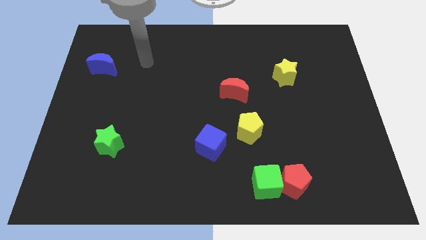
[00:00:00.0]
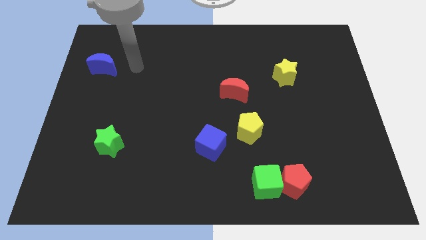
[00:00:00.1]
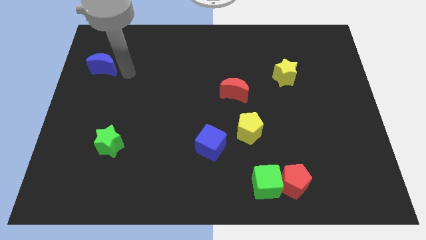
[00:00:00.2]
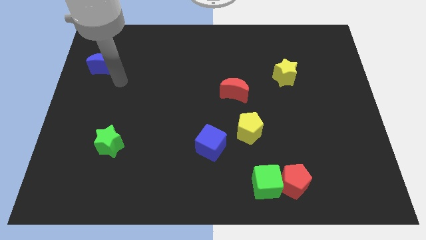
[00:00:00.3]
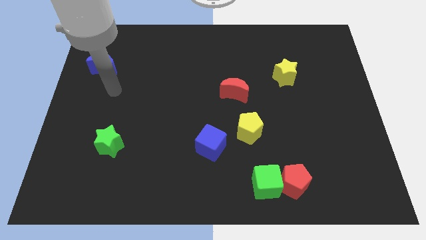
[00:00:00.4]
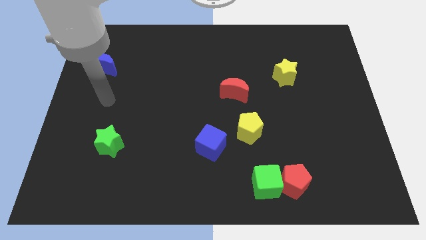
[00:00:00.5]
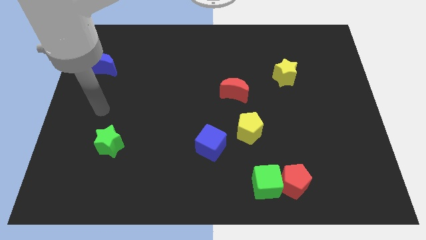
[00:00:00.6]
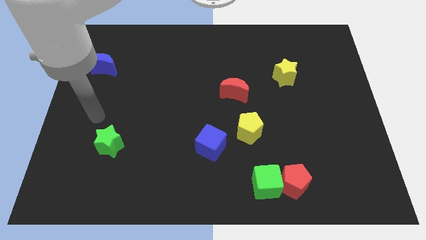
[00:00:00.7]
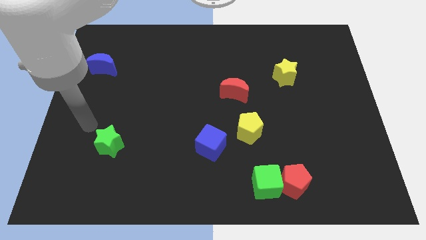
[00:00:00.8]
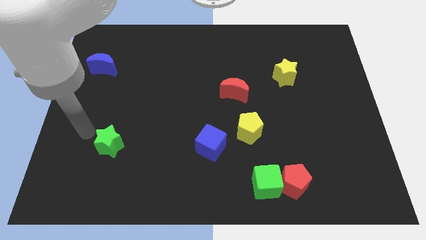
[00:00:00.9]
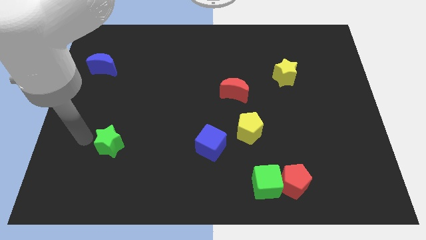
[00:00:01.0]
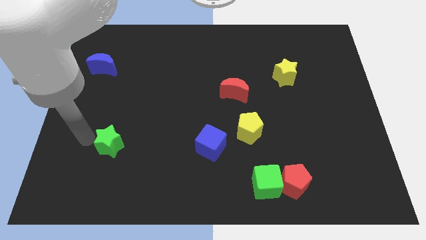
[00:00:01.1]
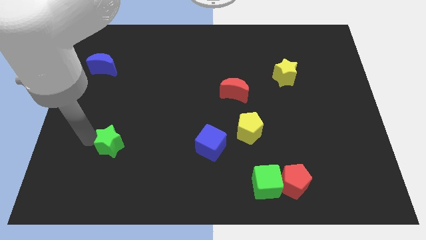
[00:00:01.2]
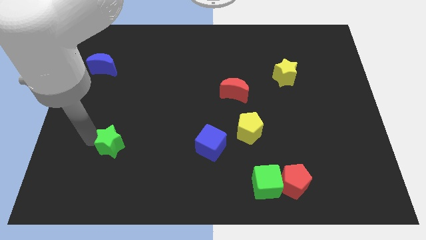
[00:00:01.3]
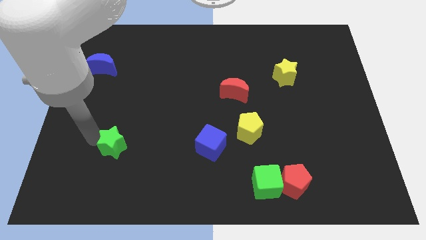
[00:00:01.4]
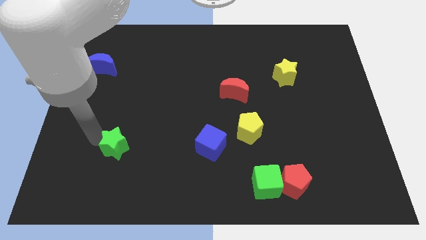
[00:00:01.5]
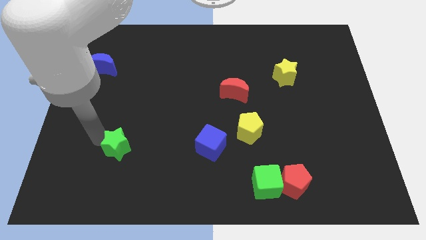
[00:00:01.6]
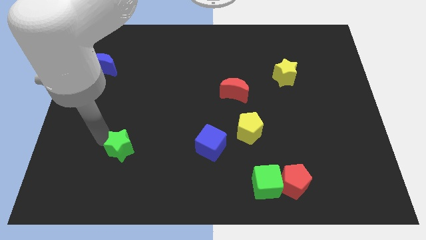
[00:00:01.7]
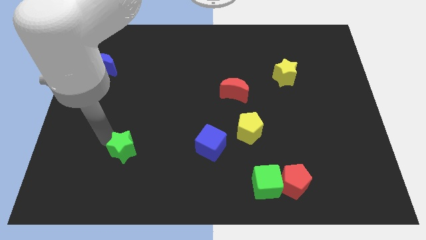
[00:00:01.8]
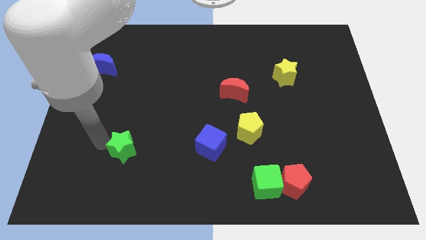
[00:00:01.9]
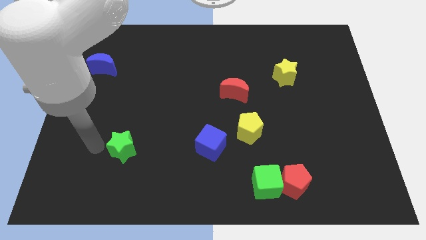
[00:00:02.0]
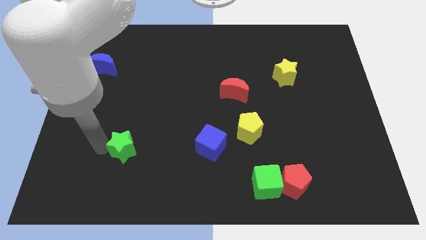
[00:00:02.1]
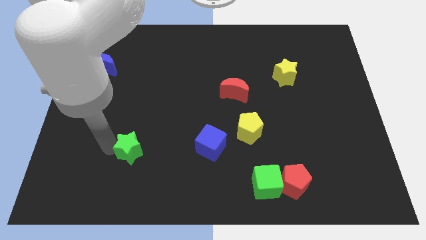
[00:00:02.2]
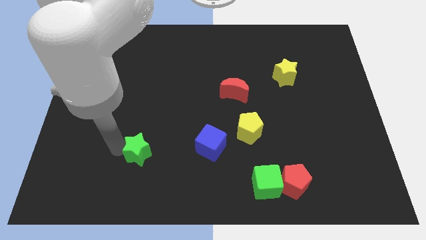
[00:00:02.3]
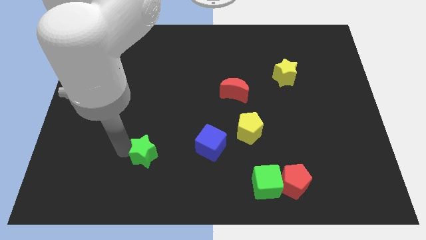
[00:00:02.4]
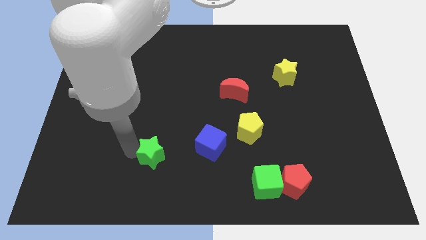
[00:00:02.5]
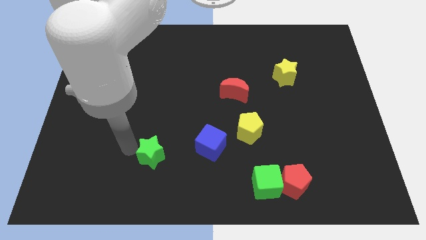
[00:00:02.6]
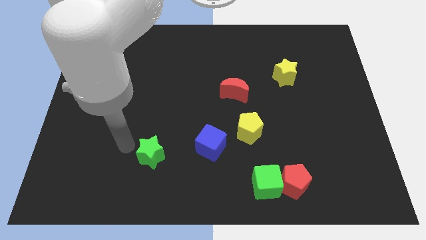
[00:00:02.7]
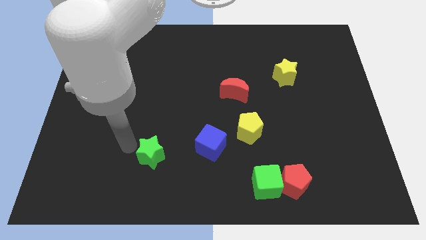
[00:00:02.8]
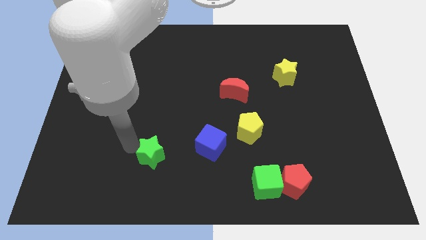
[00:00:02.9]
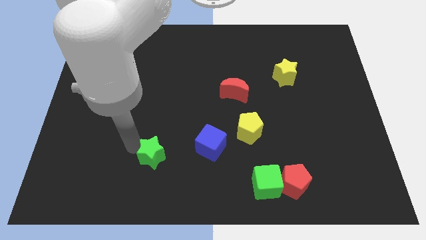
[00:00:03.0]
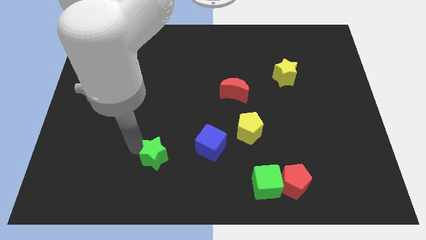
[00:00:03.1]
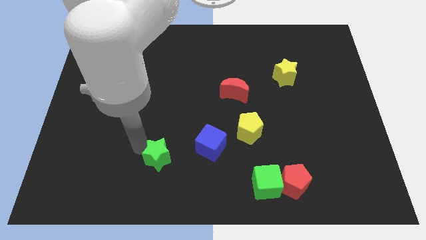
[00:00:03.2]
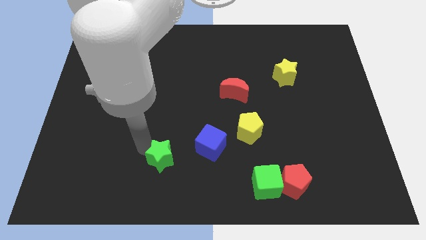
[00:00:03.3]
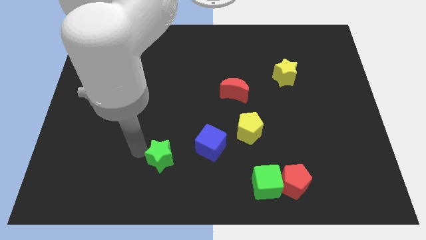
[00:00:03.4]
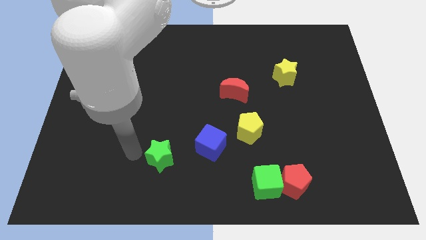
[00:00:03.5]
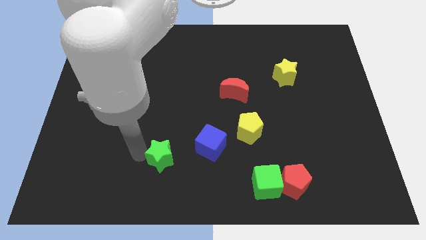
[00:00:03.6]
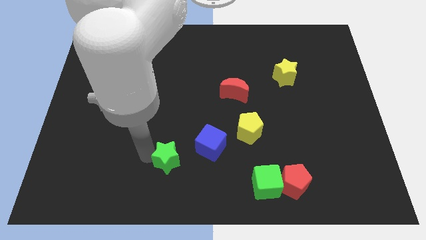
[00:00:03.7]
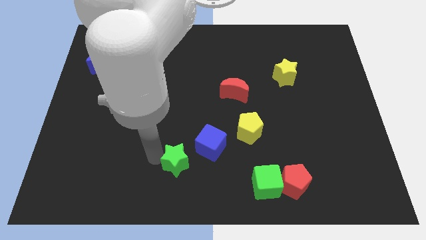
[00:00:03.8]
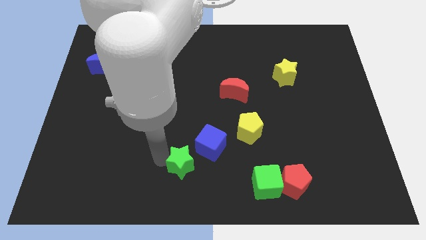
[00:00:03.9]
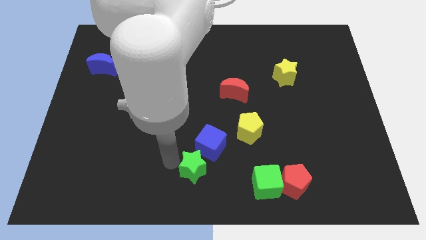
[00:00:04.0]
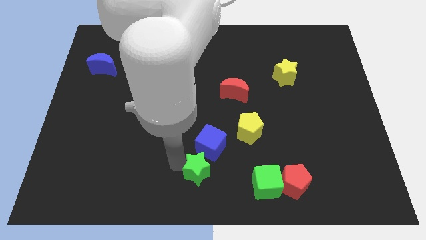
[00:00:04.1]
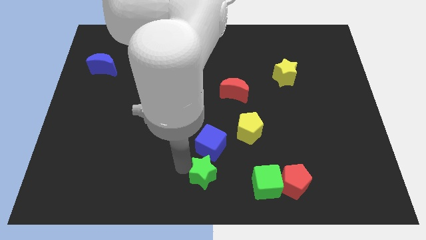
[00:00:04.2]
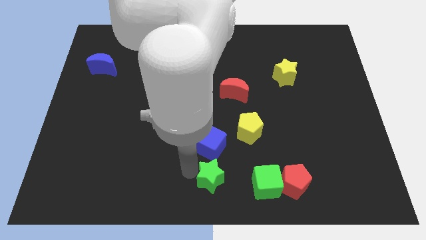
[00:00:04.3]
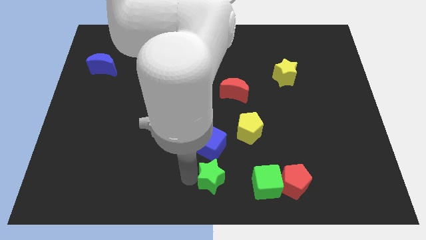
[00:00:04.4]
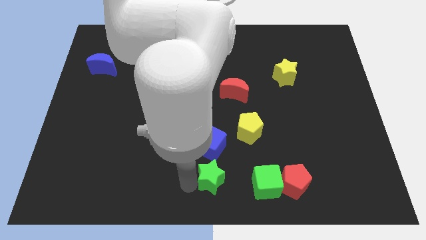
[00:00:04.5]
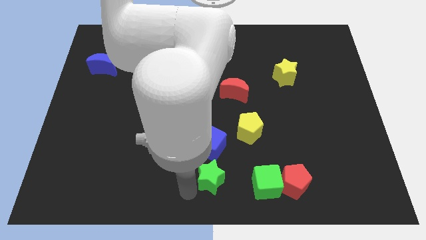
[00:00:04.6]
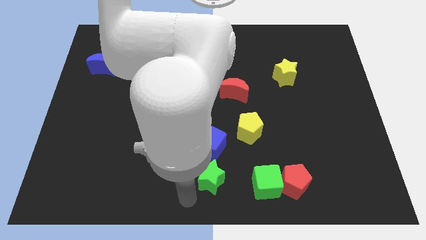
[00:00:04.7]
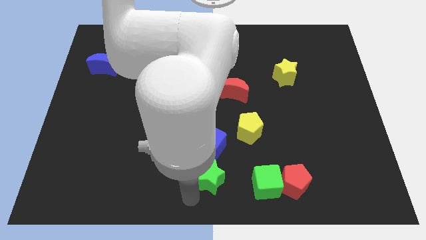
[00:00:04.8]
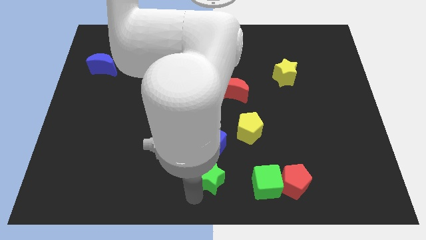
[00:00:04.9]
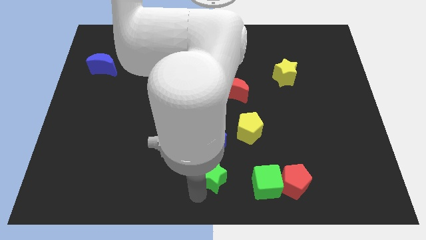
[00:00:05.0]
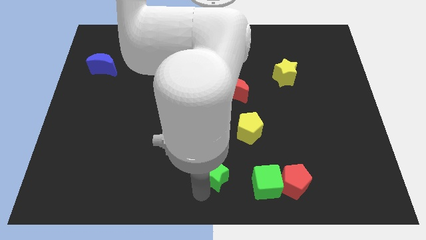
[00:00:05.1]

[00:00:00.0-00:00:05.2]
move the green star right

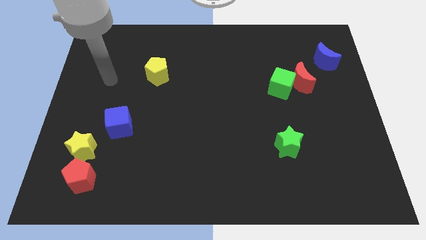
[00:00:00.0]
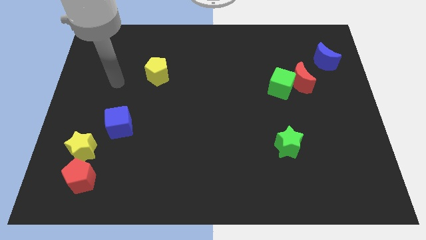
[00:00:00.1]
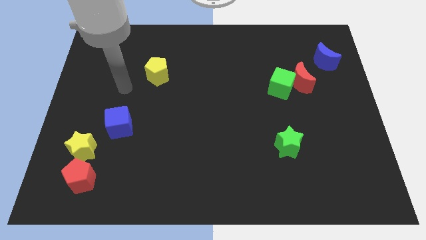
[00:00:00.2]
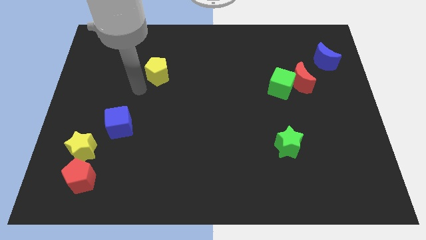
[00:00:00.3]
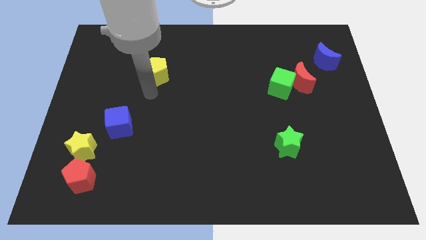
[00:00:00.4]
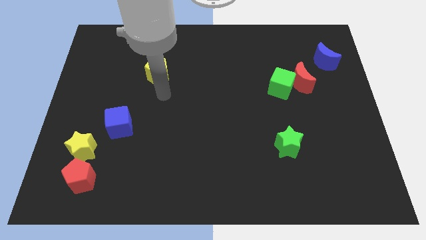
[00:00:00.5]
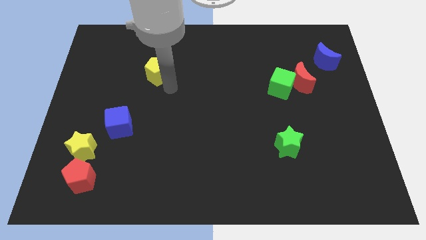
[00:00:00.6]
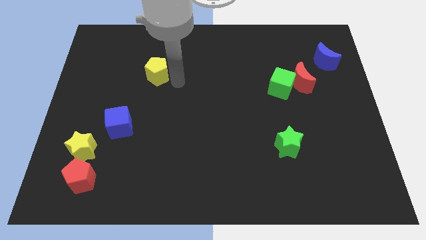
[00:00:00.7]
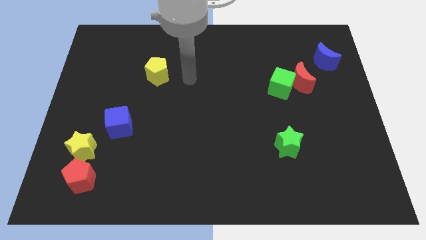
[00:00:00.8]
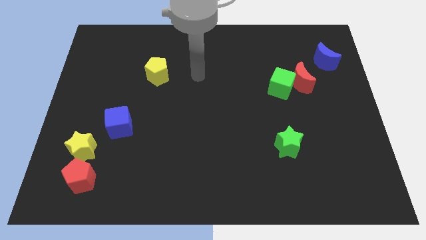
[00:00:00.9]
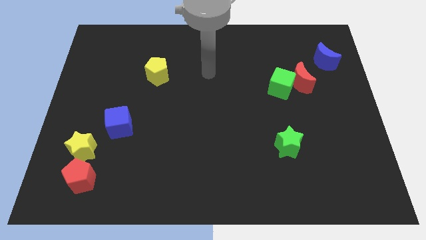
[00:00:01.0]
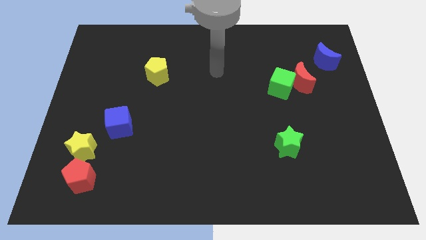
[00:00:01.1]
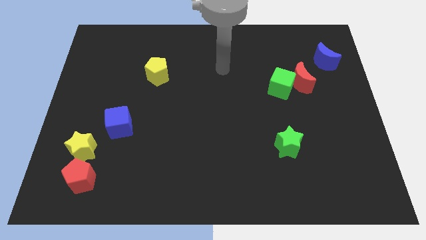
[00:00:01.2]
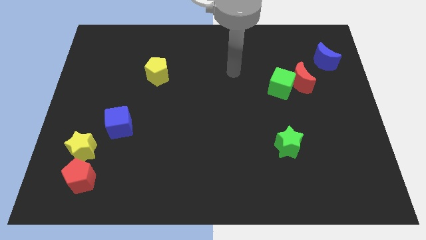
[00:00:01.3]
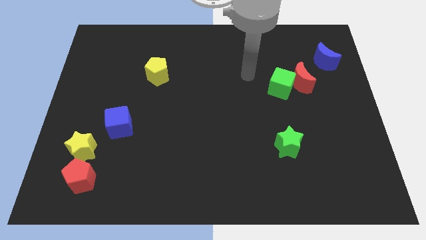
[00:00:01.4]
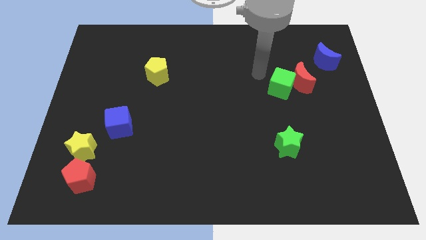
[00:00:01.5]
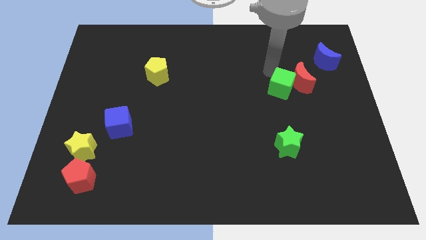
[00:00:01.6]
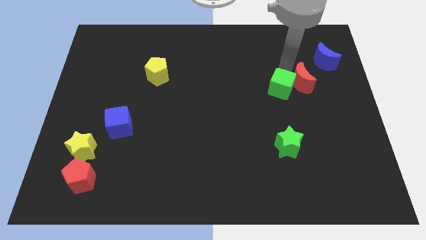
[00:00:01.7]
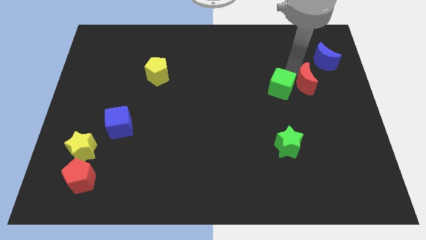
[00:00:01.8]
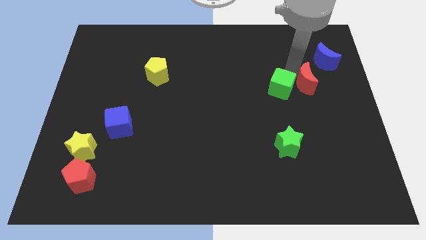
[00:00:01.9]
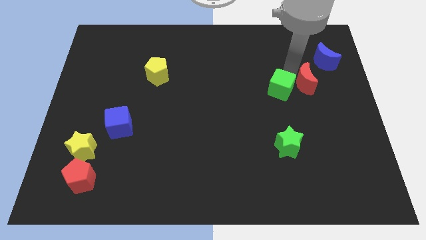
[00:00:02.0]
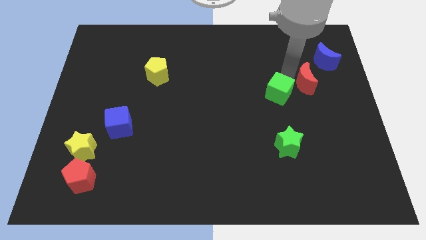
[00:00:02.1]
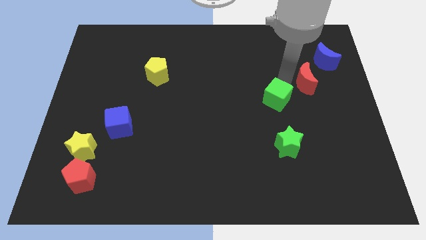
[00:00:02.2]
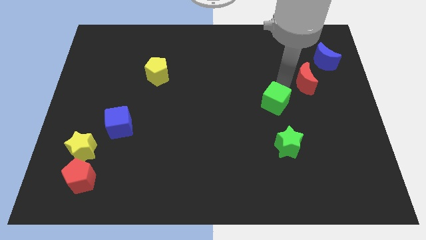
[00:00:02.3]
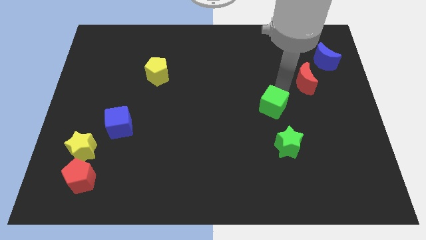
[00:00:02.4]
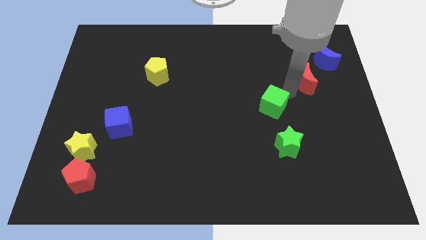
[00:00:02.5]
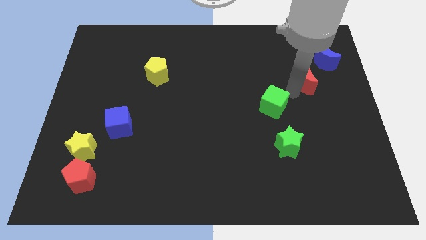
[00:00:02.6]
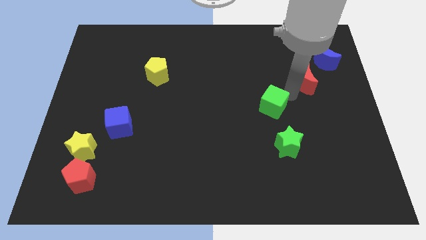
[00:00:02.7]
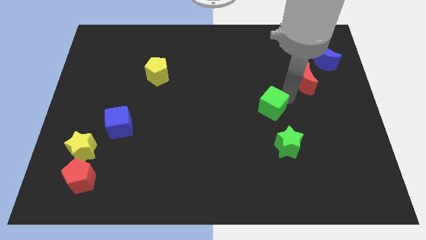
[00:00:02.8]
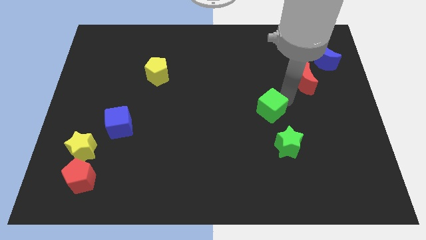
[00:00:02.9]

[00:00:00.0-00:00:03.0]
slide the green cube downwards and to the left a little bit
